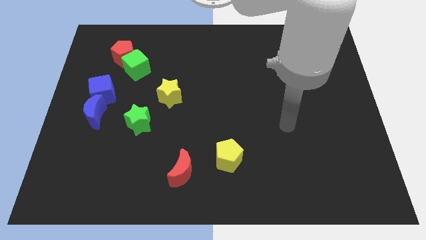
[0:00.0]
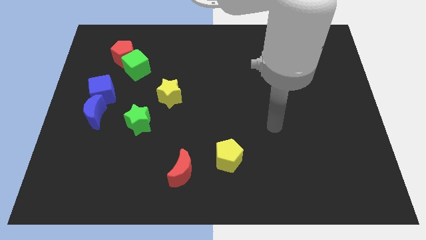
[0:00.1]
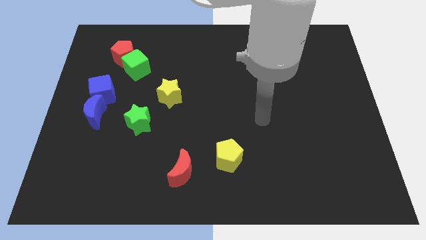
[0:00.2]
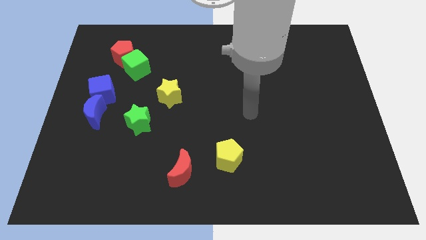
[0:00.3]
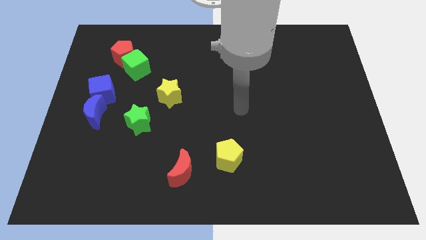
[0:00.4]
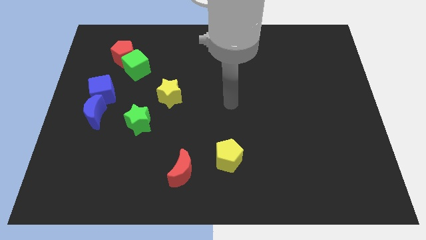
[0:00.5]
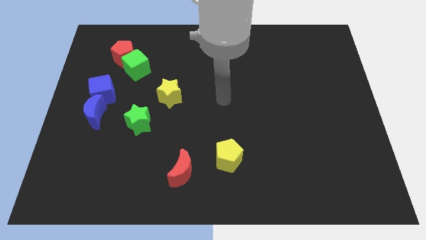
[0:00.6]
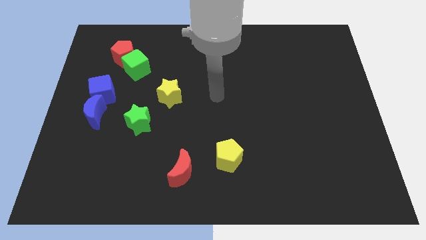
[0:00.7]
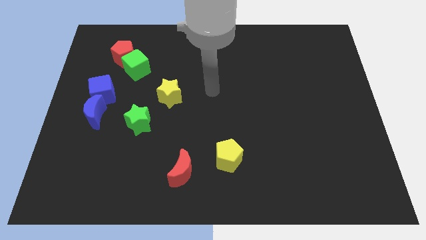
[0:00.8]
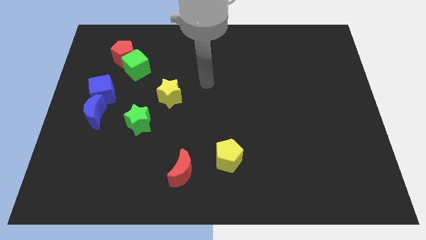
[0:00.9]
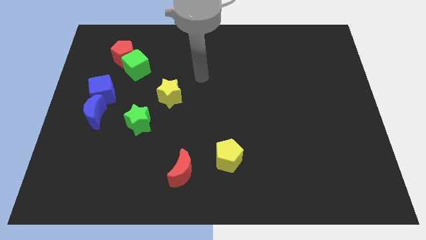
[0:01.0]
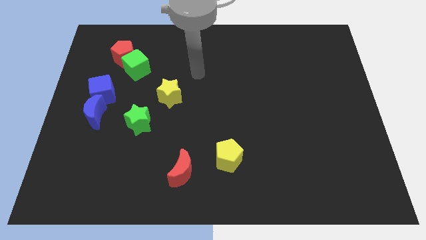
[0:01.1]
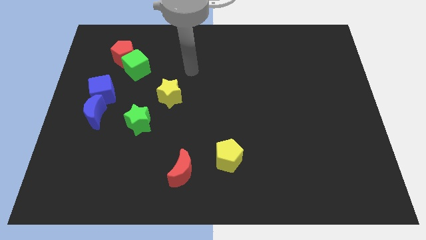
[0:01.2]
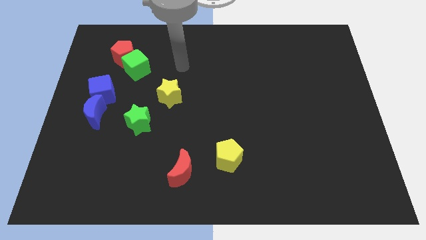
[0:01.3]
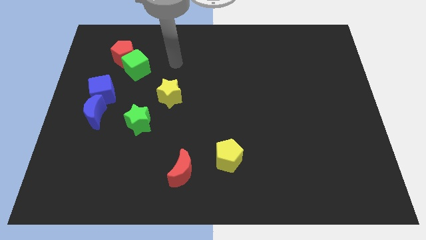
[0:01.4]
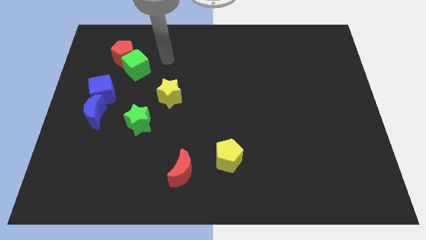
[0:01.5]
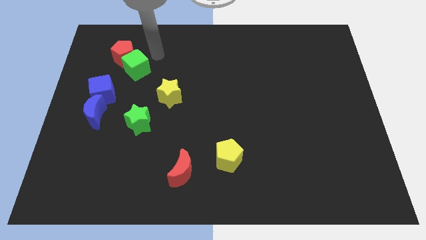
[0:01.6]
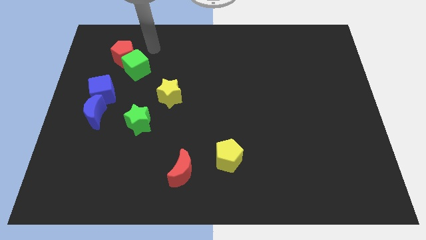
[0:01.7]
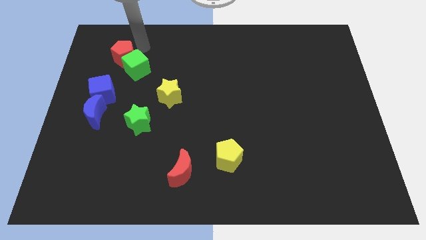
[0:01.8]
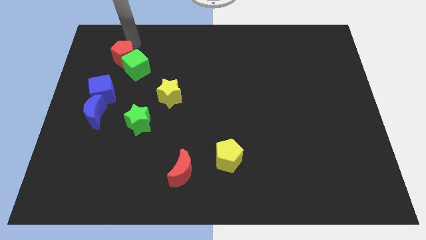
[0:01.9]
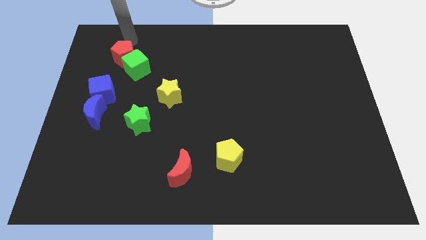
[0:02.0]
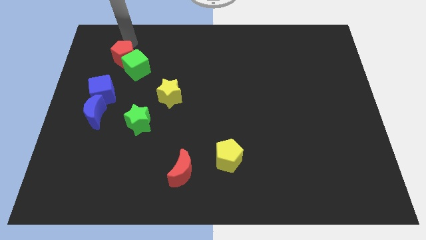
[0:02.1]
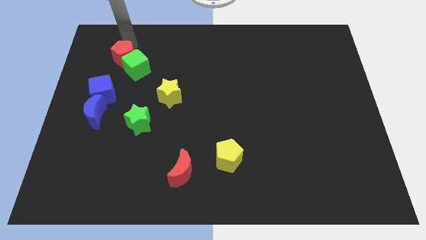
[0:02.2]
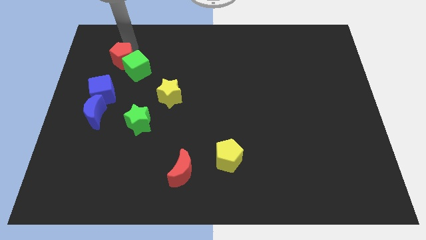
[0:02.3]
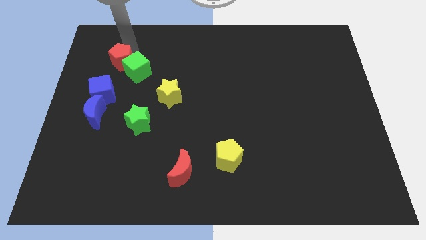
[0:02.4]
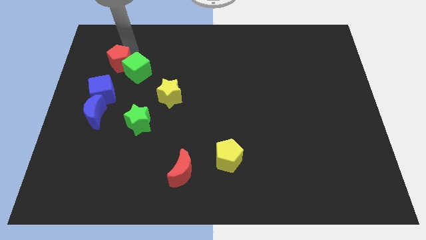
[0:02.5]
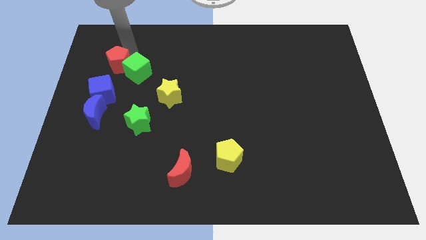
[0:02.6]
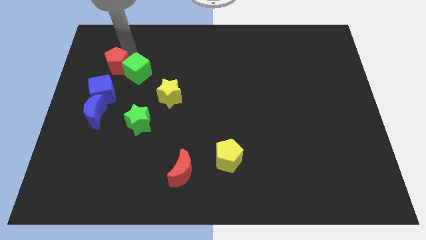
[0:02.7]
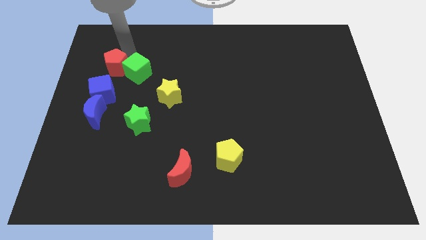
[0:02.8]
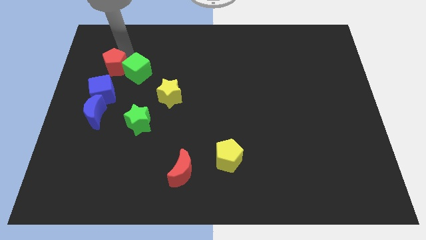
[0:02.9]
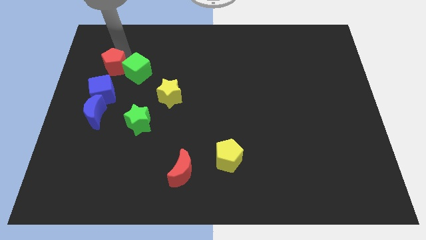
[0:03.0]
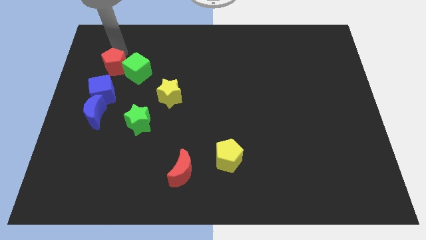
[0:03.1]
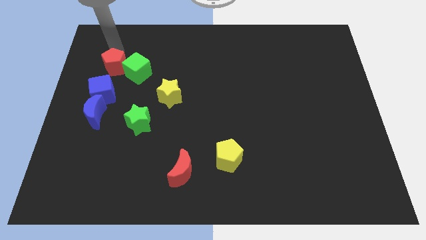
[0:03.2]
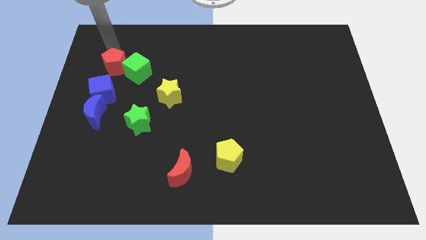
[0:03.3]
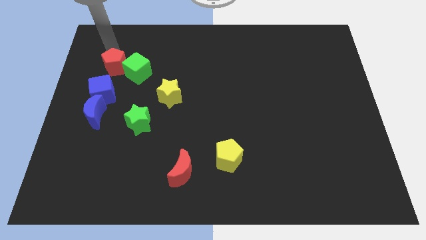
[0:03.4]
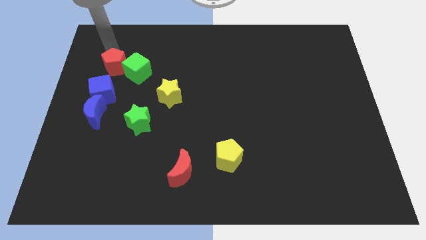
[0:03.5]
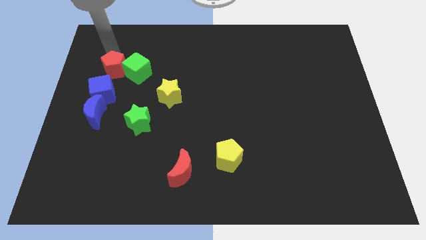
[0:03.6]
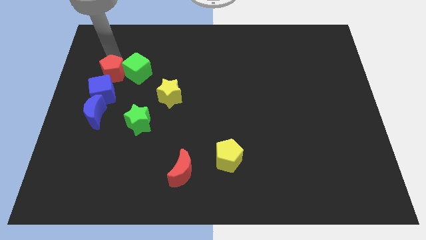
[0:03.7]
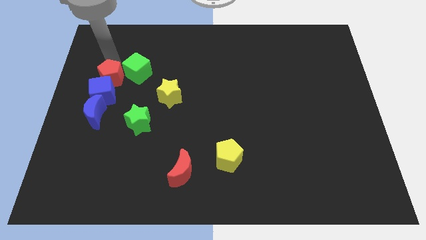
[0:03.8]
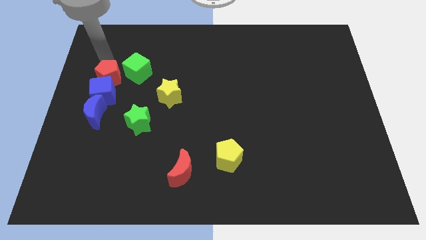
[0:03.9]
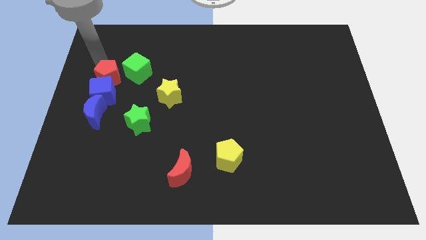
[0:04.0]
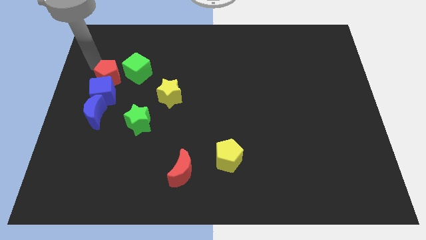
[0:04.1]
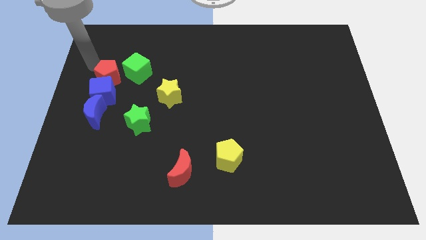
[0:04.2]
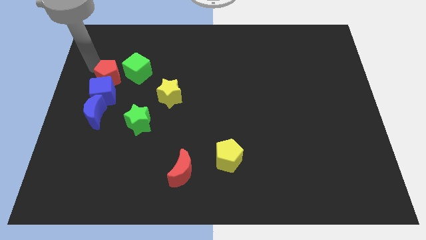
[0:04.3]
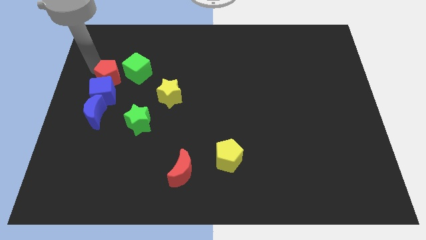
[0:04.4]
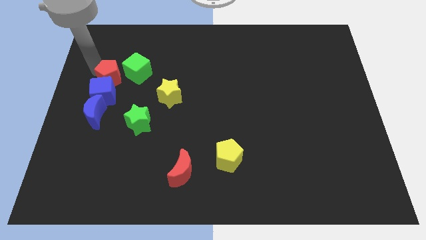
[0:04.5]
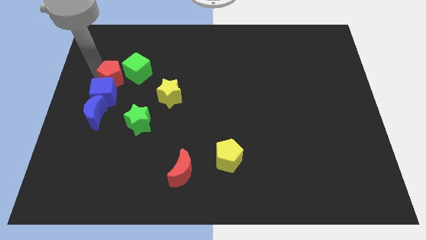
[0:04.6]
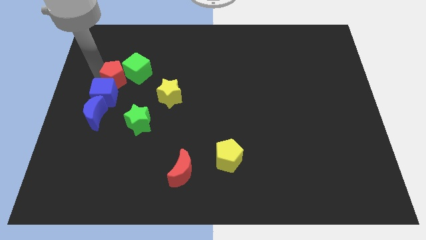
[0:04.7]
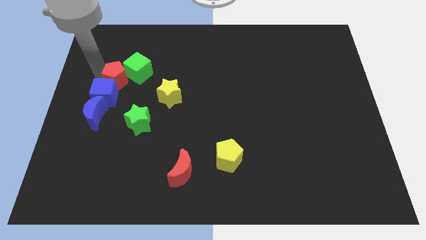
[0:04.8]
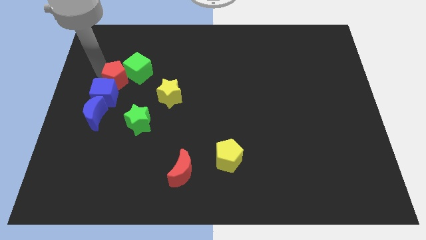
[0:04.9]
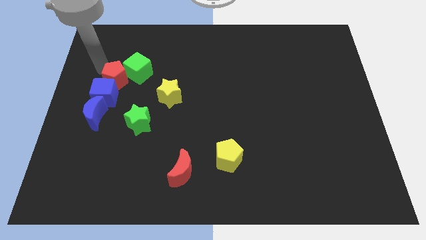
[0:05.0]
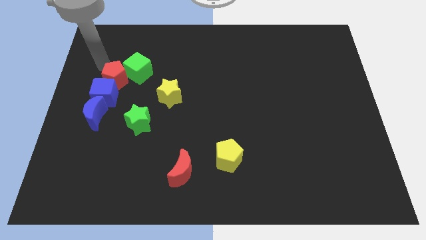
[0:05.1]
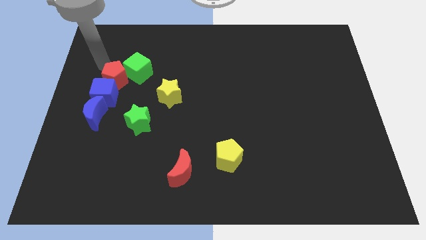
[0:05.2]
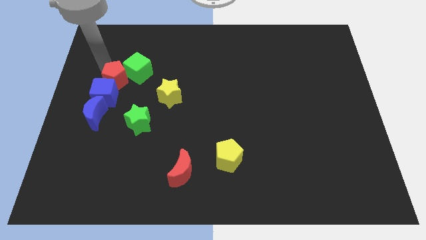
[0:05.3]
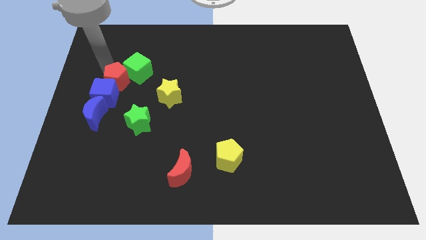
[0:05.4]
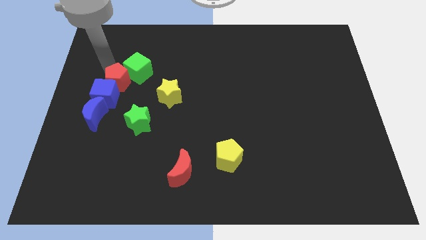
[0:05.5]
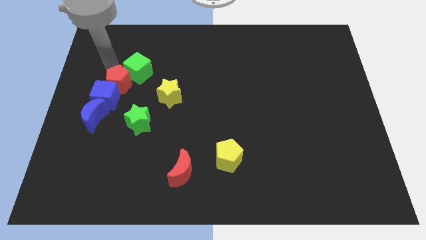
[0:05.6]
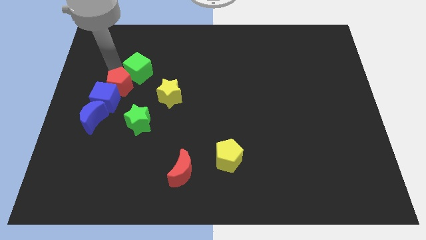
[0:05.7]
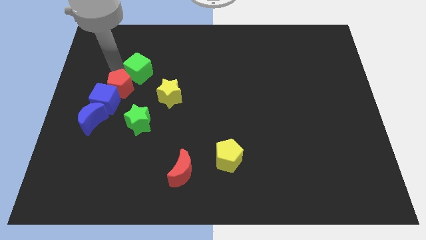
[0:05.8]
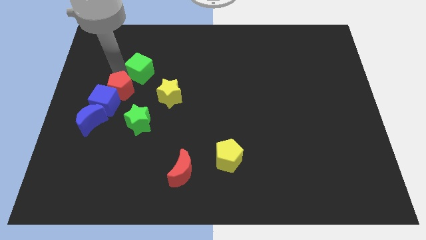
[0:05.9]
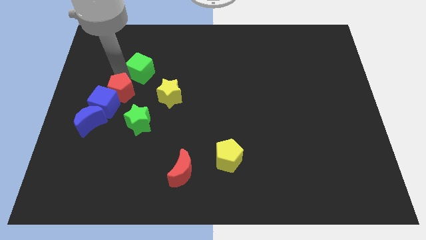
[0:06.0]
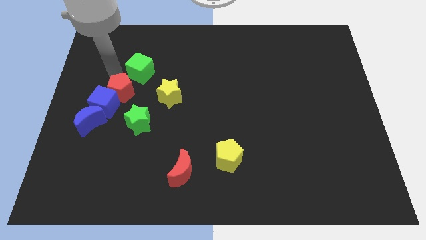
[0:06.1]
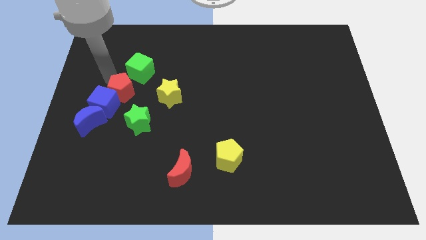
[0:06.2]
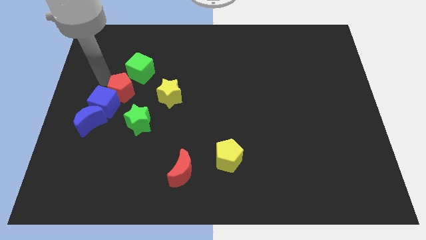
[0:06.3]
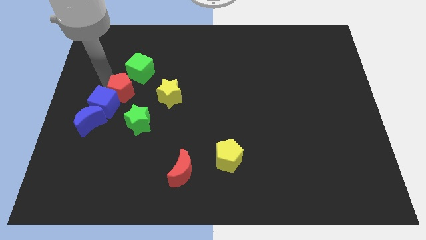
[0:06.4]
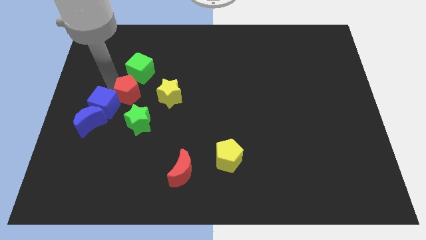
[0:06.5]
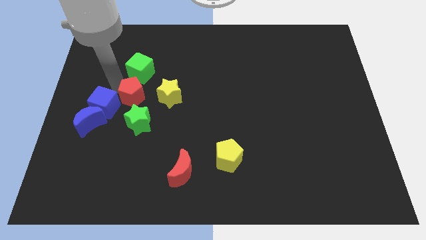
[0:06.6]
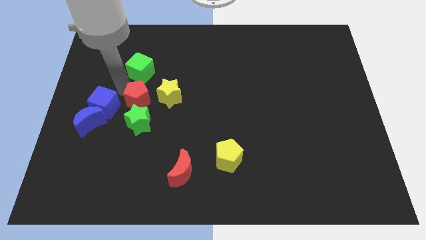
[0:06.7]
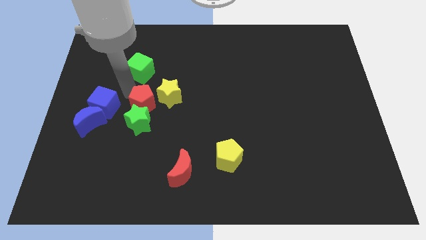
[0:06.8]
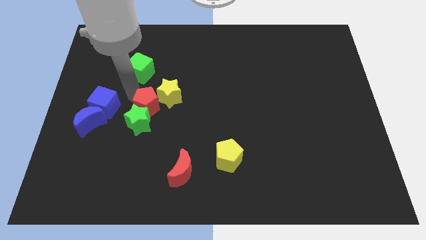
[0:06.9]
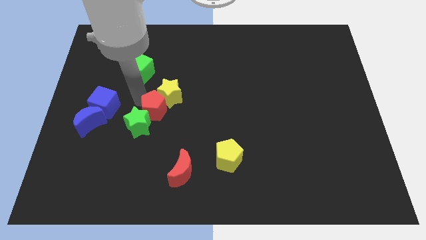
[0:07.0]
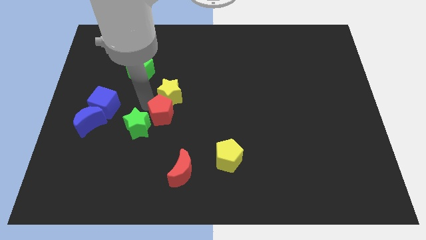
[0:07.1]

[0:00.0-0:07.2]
push the red pentagon down and right

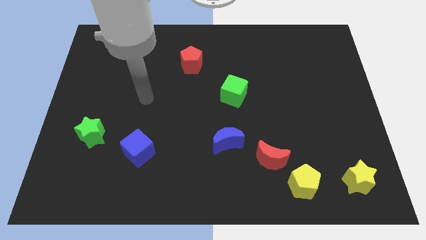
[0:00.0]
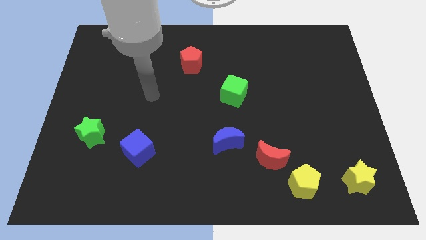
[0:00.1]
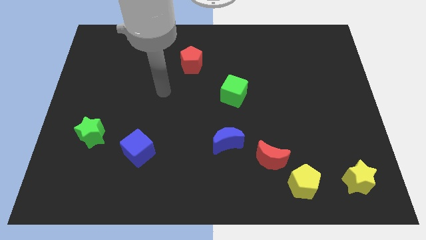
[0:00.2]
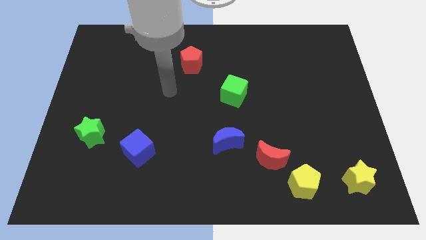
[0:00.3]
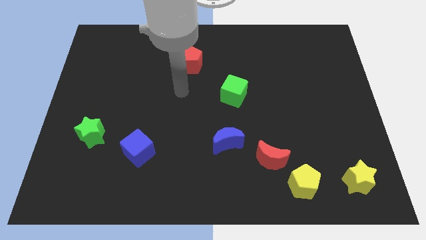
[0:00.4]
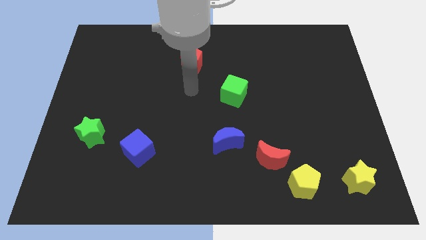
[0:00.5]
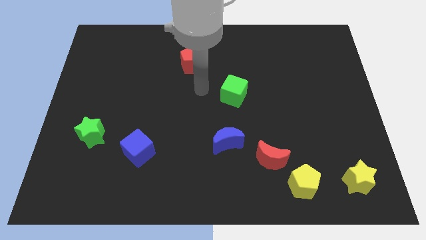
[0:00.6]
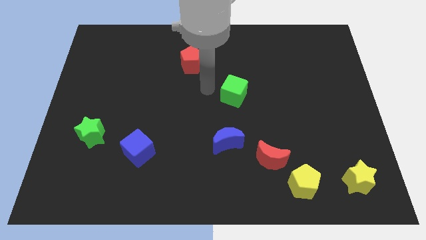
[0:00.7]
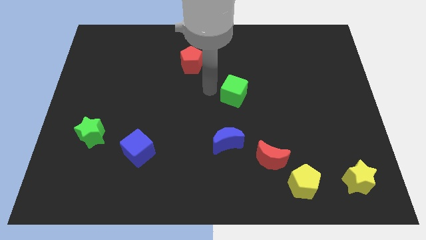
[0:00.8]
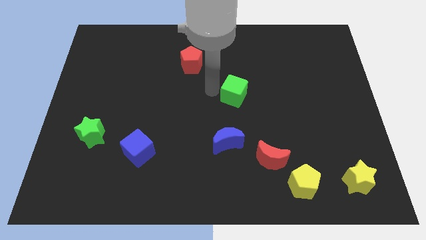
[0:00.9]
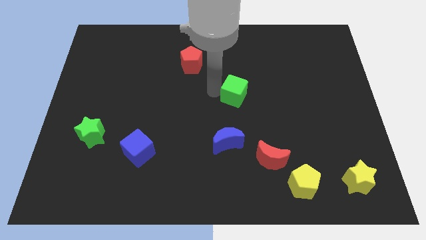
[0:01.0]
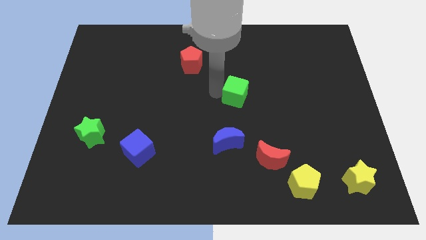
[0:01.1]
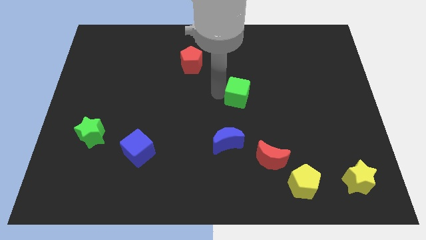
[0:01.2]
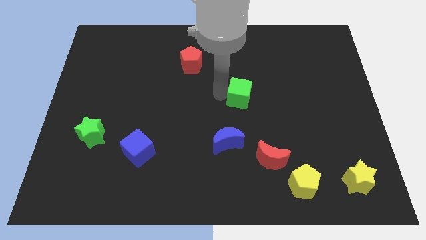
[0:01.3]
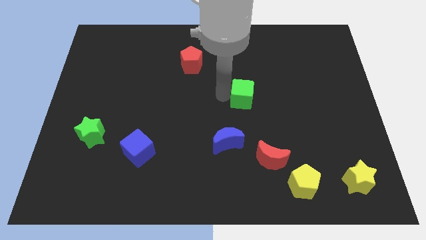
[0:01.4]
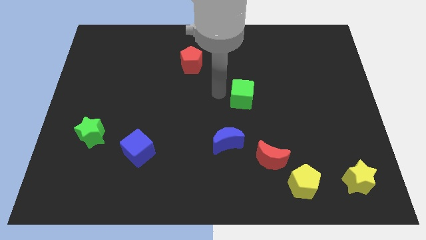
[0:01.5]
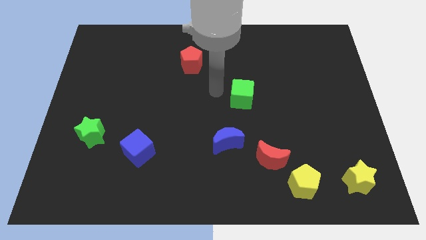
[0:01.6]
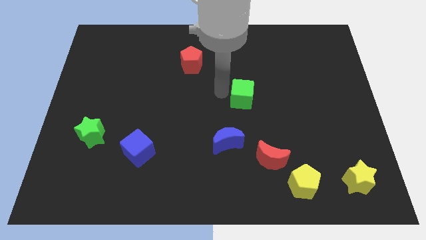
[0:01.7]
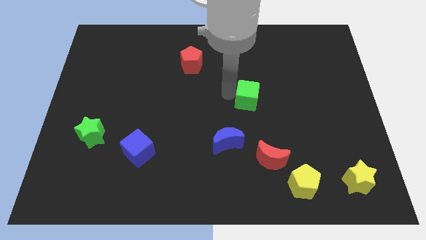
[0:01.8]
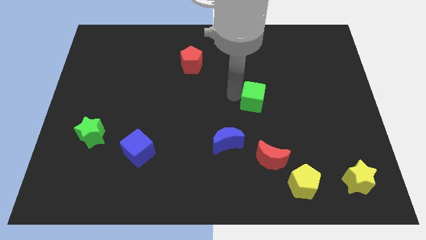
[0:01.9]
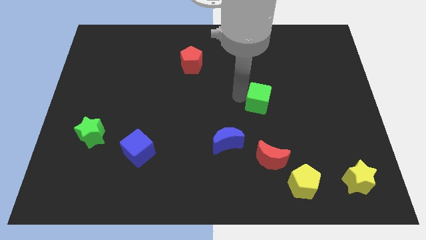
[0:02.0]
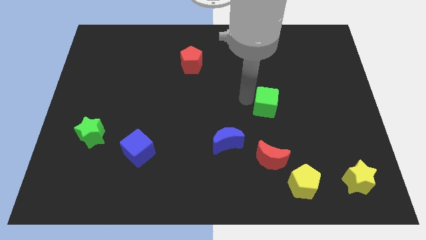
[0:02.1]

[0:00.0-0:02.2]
move the green cube slightly right
